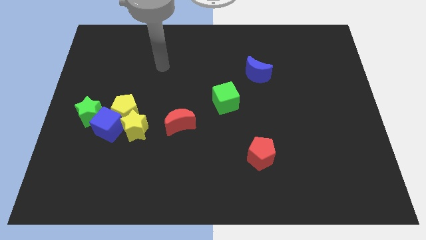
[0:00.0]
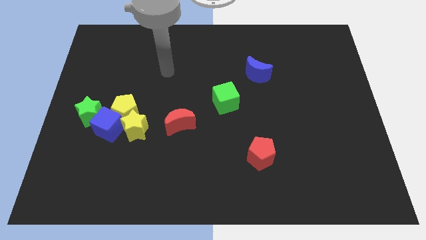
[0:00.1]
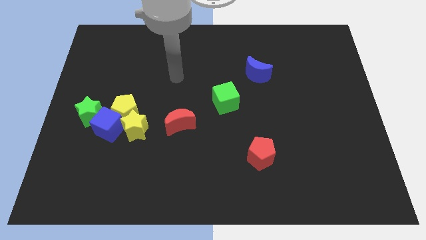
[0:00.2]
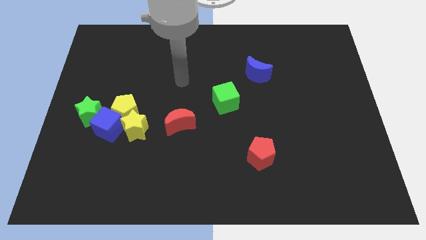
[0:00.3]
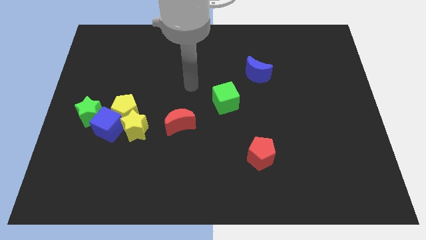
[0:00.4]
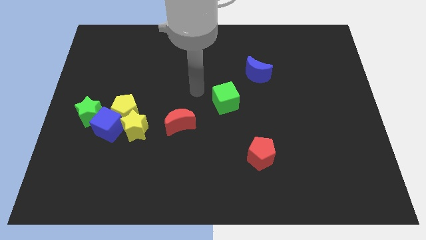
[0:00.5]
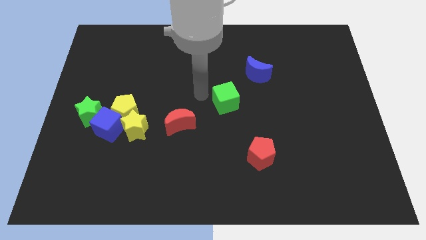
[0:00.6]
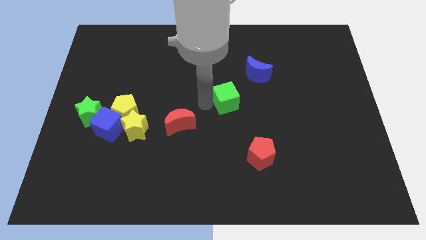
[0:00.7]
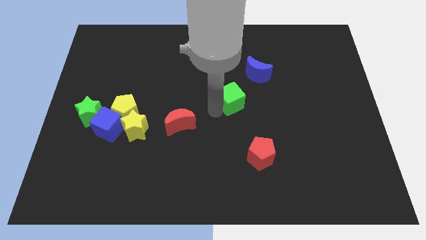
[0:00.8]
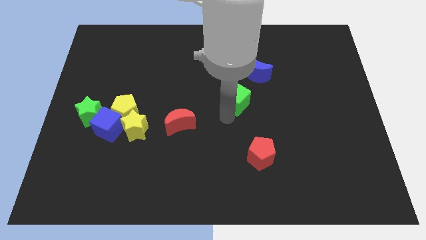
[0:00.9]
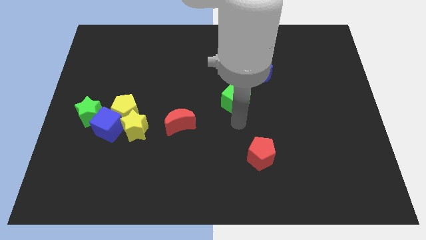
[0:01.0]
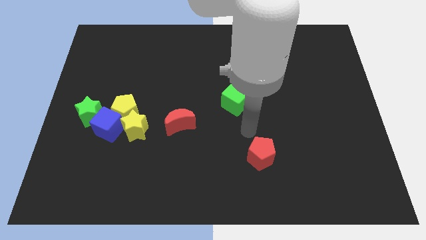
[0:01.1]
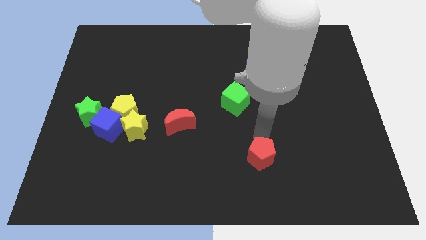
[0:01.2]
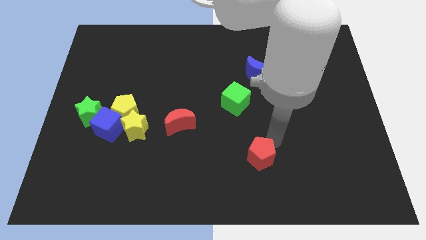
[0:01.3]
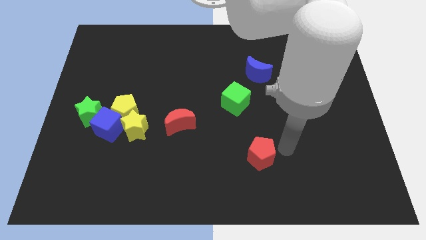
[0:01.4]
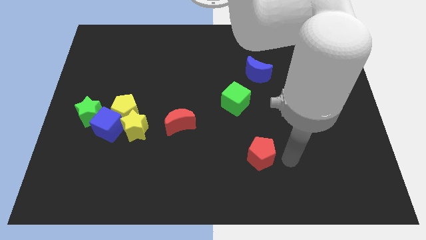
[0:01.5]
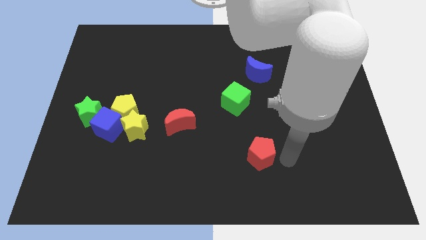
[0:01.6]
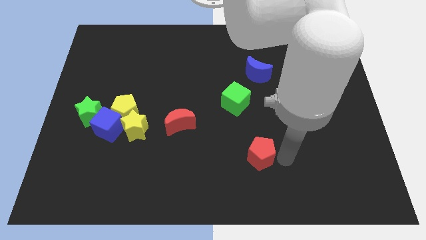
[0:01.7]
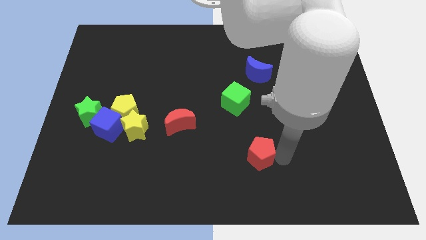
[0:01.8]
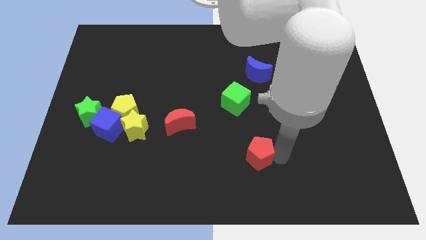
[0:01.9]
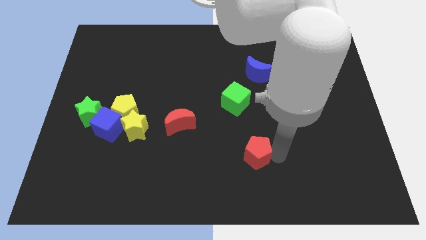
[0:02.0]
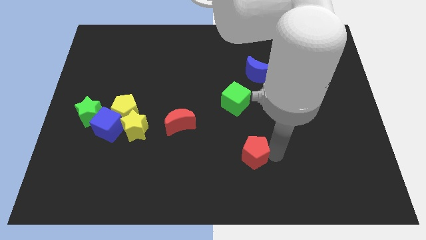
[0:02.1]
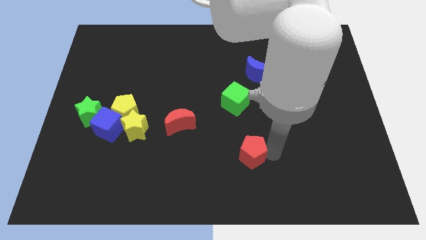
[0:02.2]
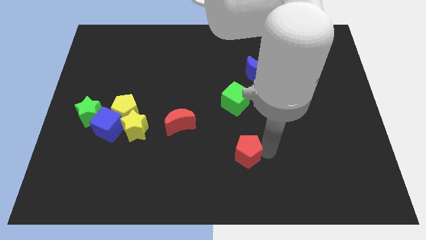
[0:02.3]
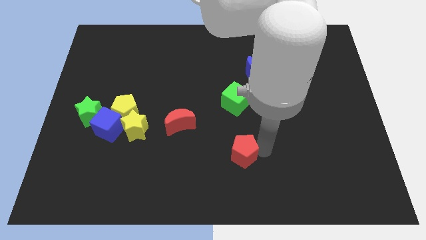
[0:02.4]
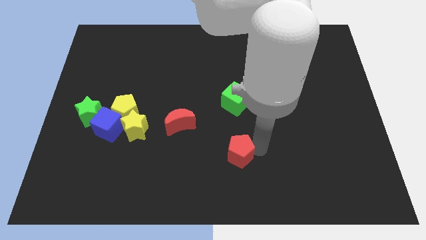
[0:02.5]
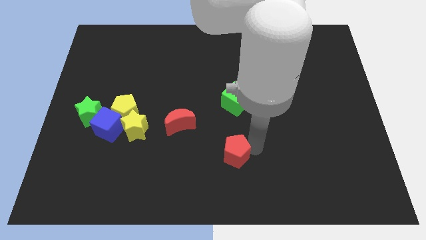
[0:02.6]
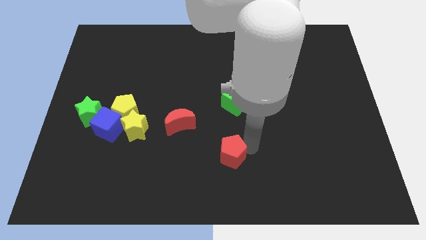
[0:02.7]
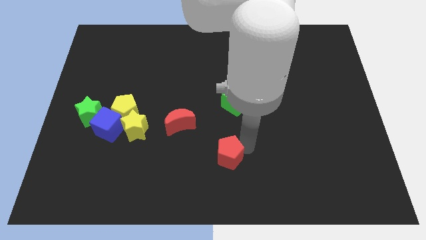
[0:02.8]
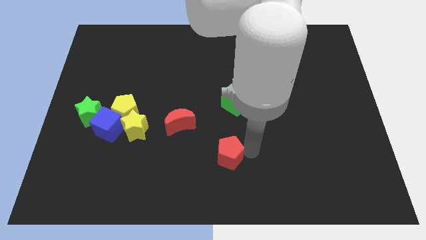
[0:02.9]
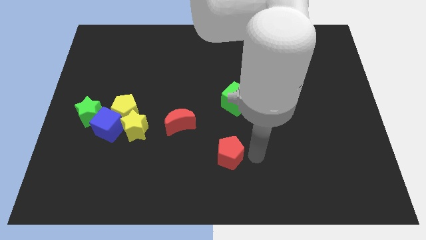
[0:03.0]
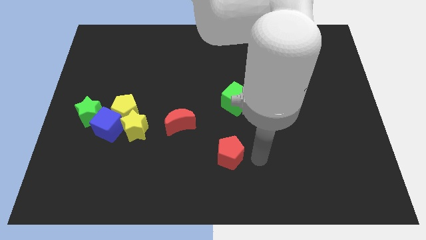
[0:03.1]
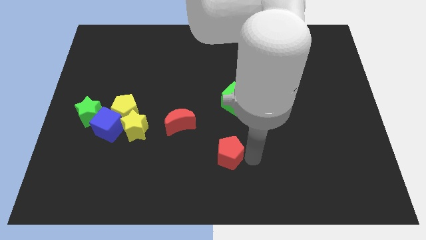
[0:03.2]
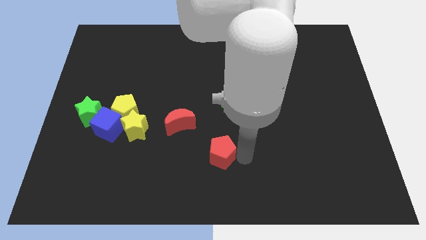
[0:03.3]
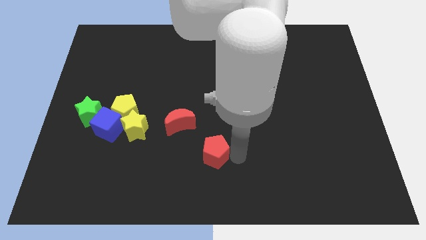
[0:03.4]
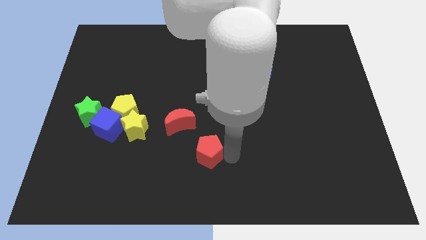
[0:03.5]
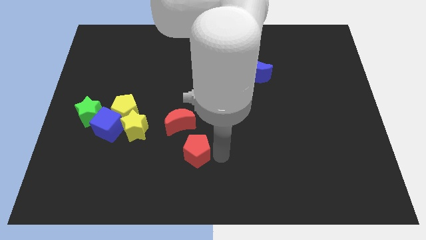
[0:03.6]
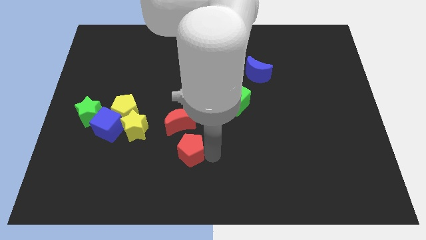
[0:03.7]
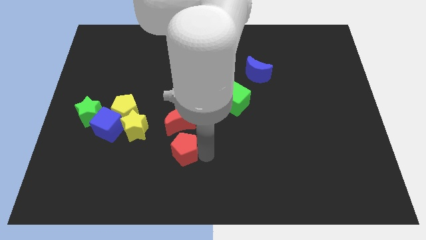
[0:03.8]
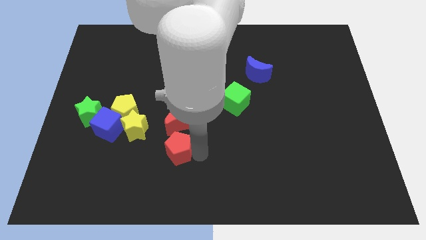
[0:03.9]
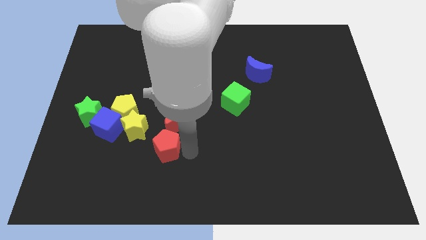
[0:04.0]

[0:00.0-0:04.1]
move the red pentagon left

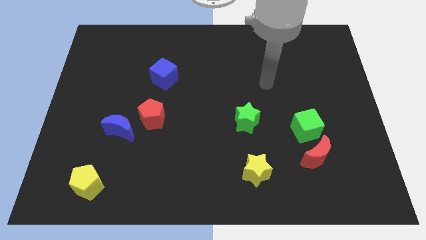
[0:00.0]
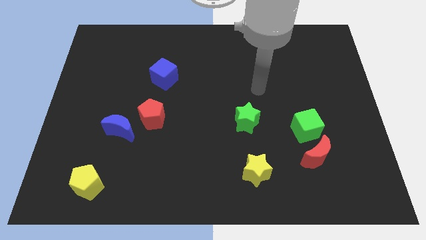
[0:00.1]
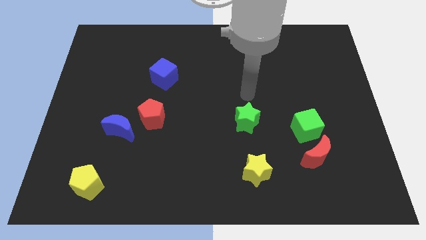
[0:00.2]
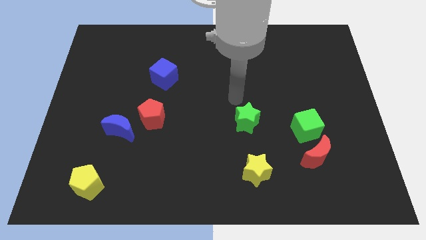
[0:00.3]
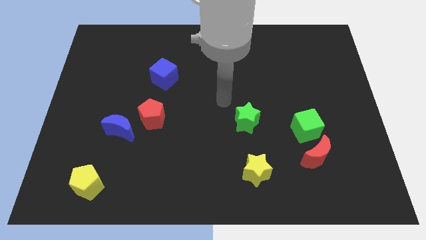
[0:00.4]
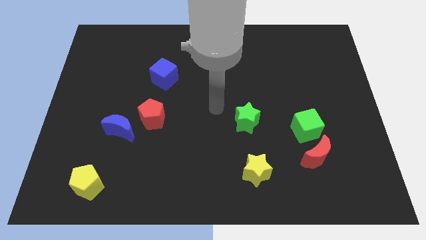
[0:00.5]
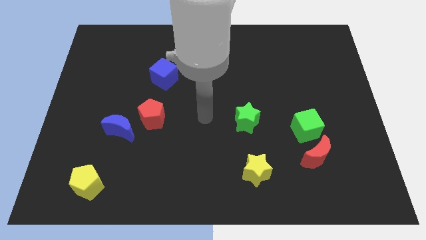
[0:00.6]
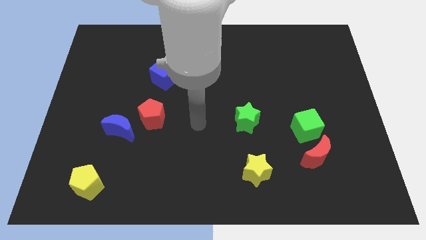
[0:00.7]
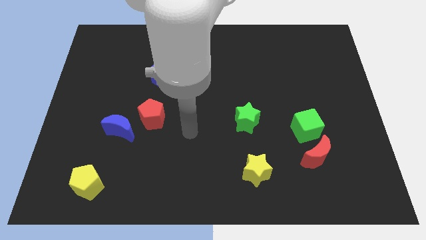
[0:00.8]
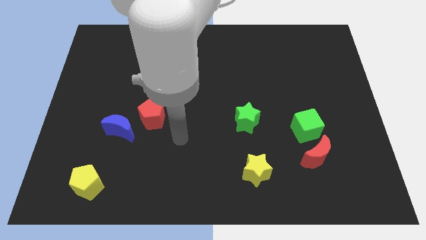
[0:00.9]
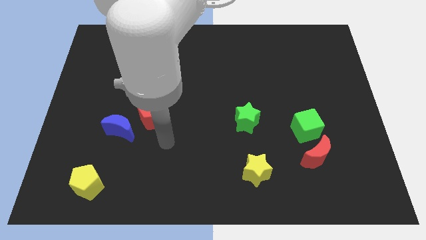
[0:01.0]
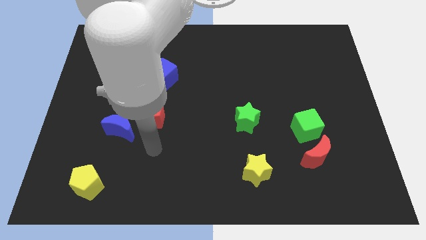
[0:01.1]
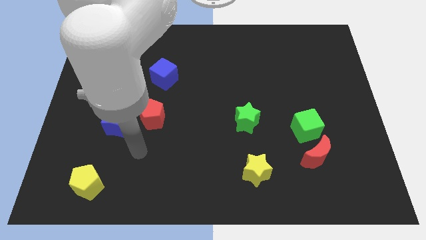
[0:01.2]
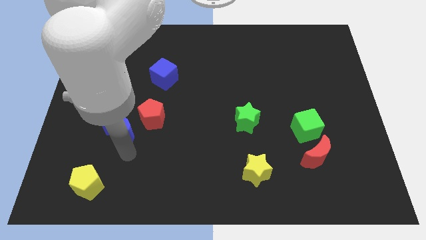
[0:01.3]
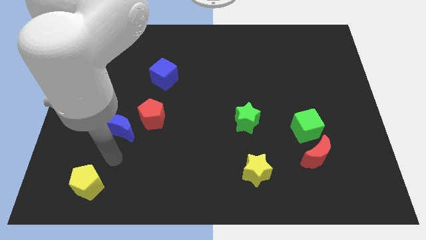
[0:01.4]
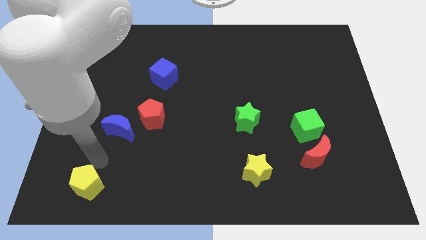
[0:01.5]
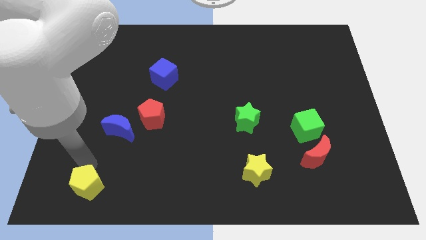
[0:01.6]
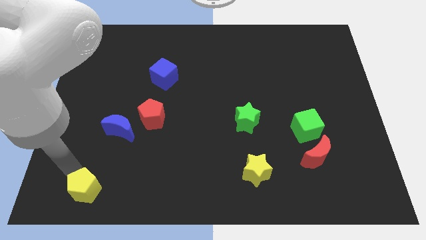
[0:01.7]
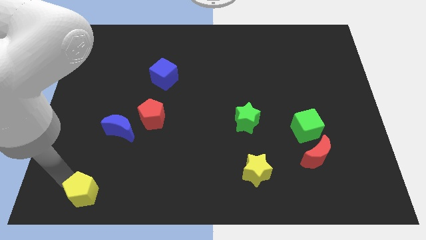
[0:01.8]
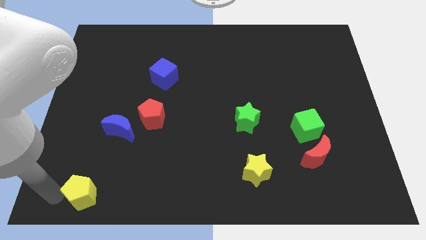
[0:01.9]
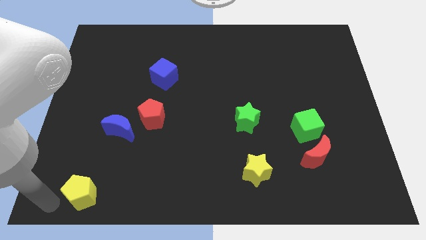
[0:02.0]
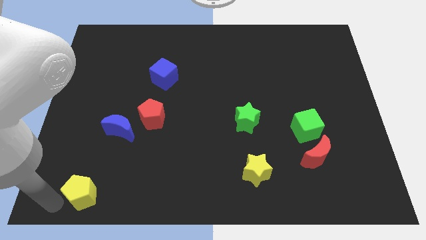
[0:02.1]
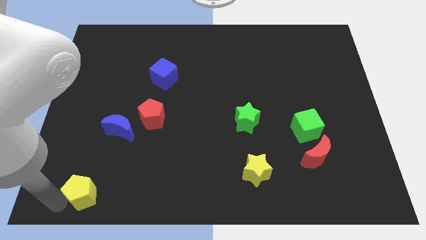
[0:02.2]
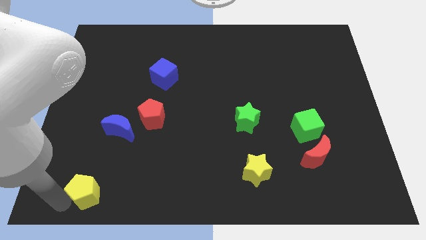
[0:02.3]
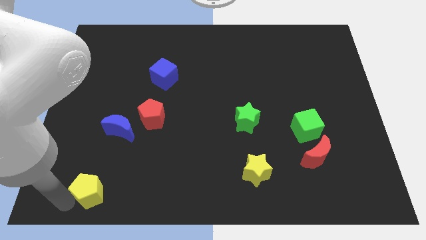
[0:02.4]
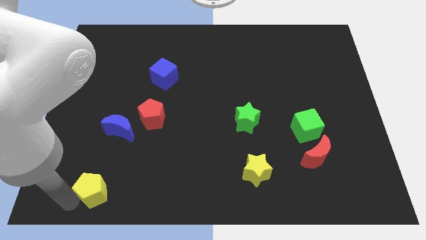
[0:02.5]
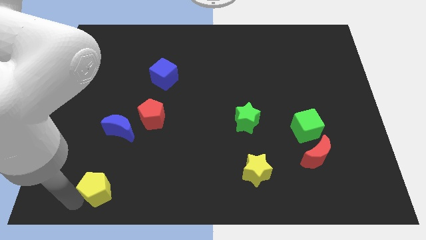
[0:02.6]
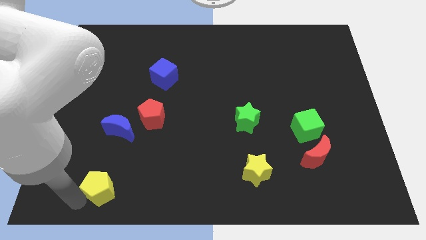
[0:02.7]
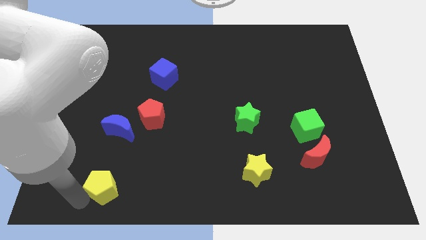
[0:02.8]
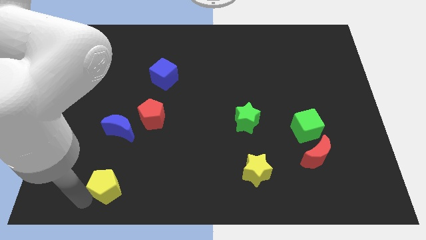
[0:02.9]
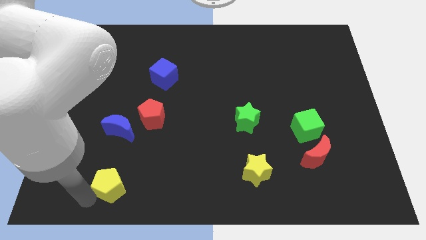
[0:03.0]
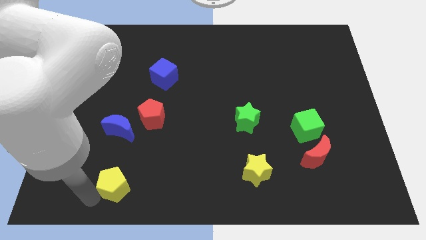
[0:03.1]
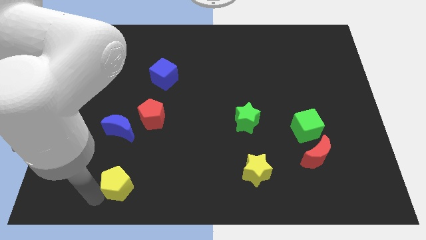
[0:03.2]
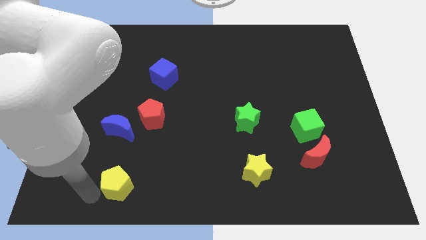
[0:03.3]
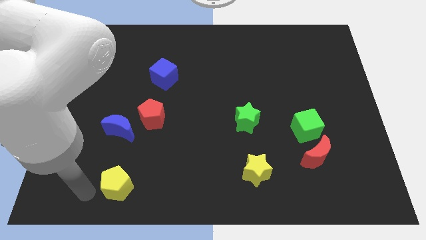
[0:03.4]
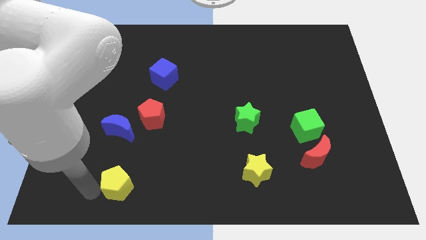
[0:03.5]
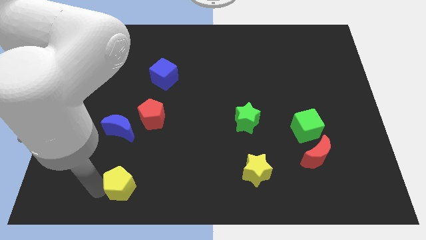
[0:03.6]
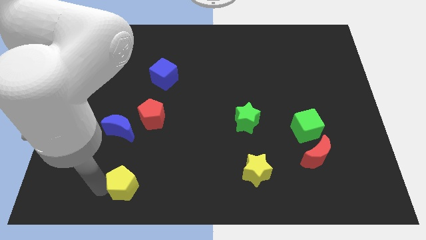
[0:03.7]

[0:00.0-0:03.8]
slide the yellow pentagon slightly to the right
